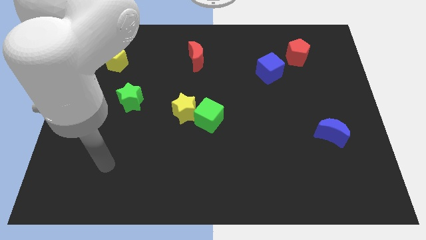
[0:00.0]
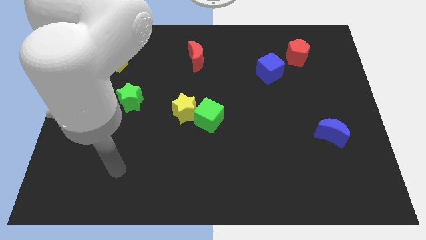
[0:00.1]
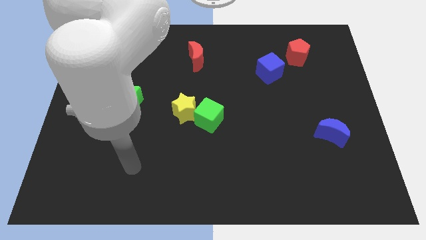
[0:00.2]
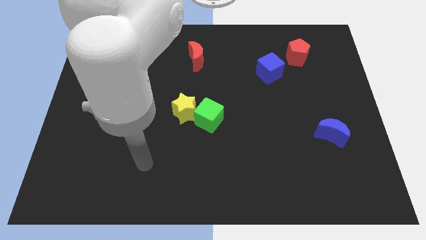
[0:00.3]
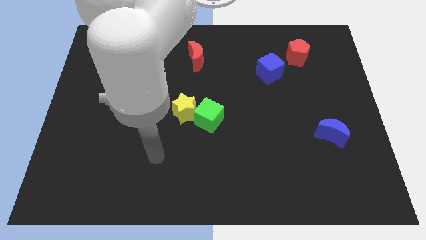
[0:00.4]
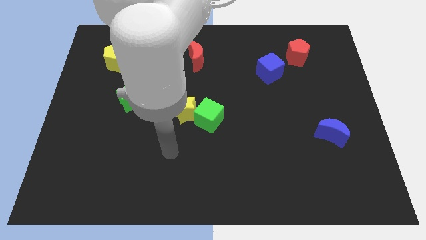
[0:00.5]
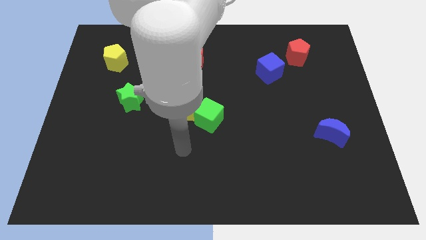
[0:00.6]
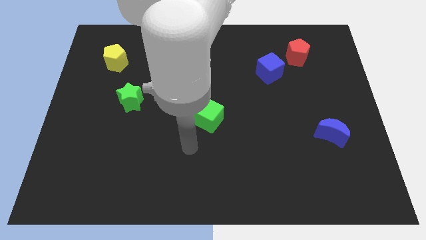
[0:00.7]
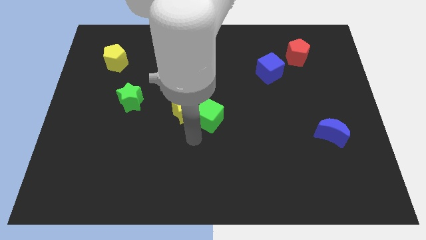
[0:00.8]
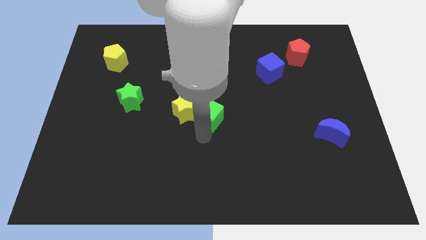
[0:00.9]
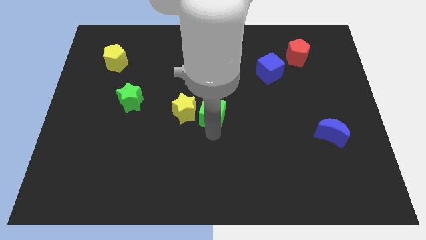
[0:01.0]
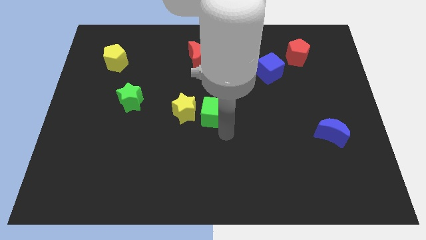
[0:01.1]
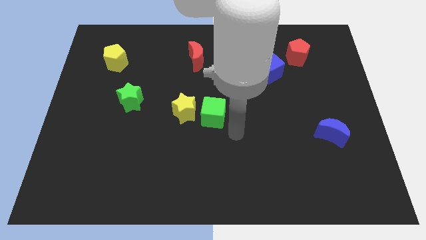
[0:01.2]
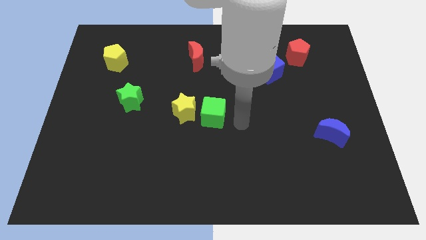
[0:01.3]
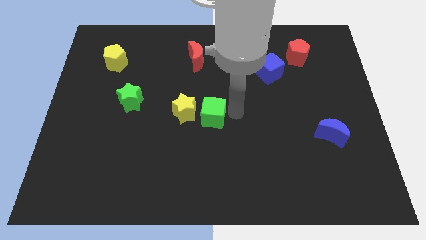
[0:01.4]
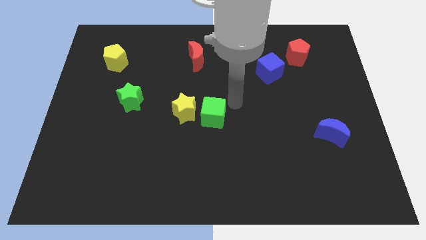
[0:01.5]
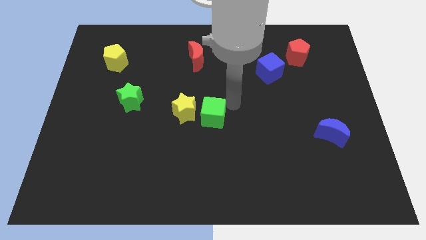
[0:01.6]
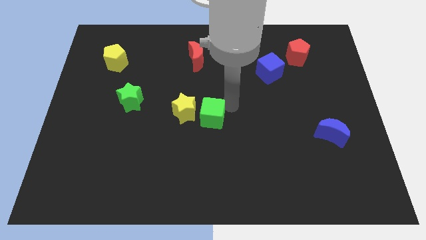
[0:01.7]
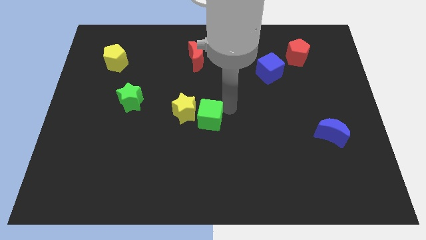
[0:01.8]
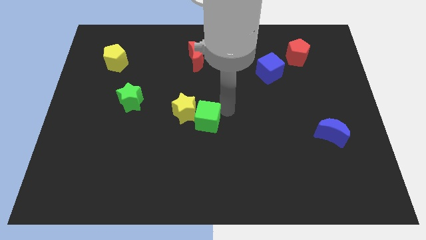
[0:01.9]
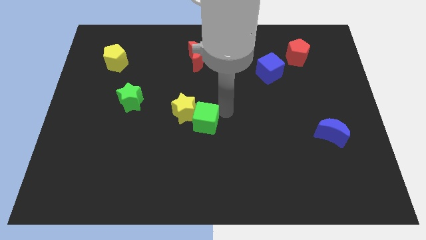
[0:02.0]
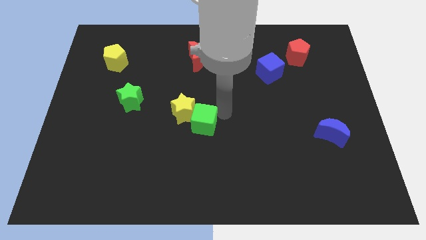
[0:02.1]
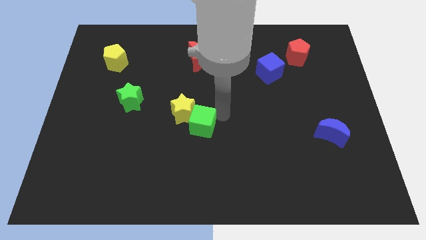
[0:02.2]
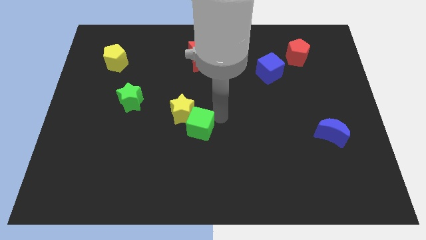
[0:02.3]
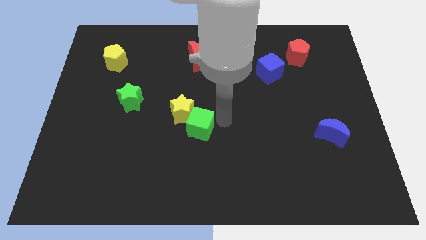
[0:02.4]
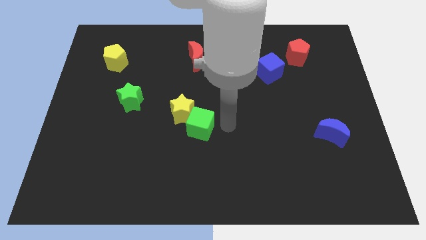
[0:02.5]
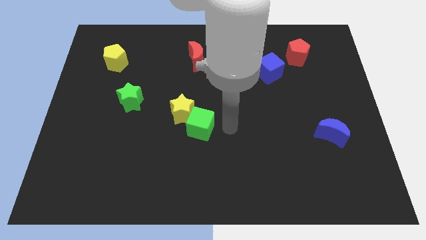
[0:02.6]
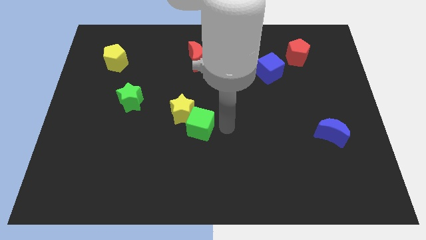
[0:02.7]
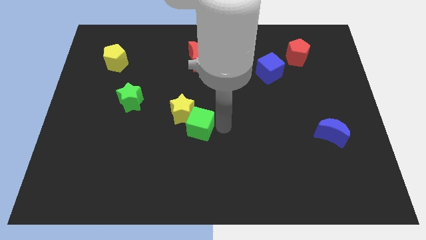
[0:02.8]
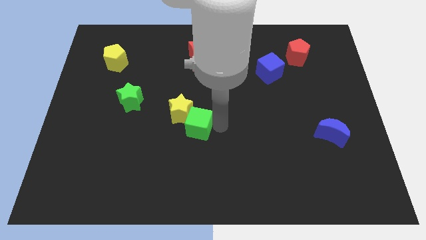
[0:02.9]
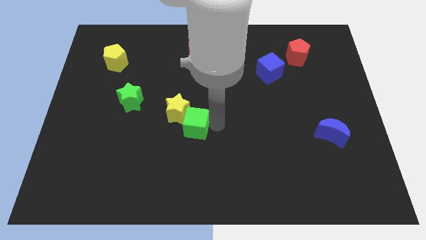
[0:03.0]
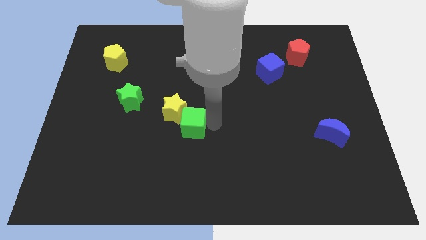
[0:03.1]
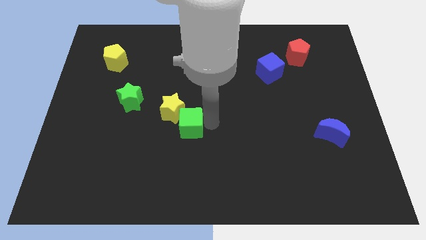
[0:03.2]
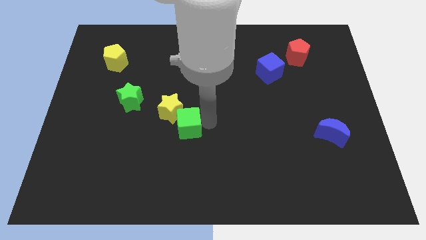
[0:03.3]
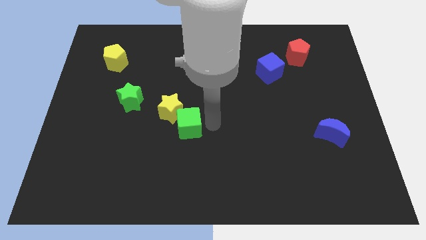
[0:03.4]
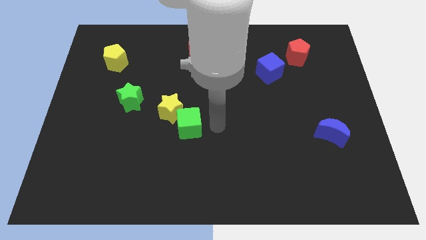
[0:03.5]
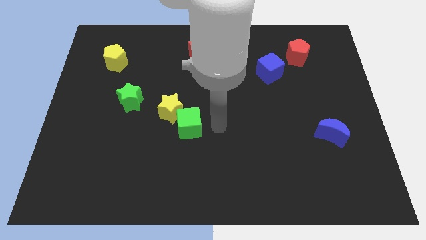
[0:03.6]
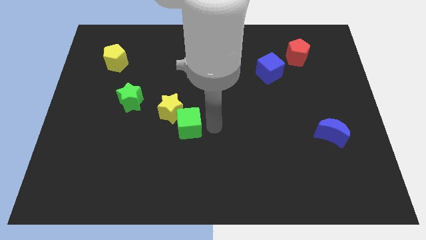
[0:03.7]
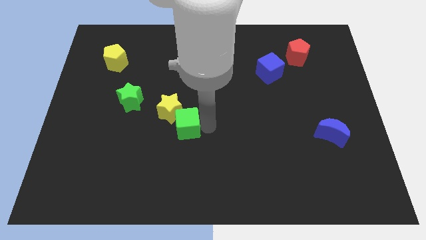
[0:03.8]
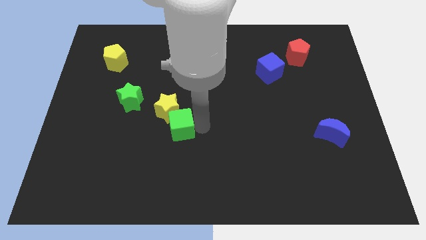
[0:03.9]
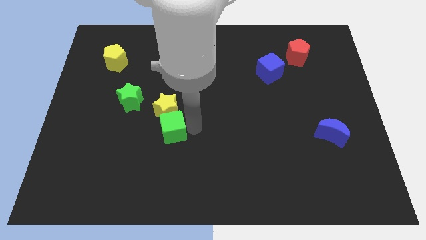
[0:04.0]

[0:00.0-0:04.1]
slide the green cube to the left slightly

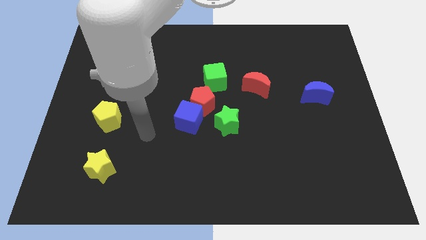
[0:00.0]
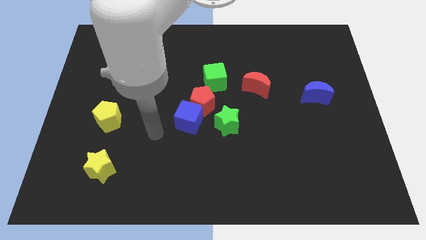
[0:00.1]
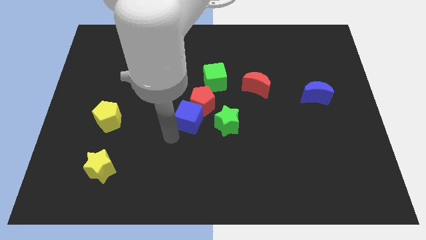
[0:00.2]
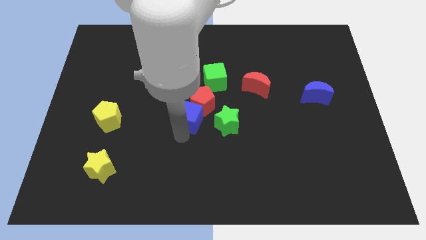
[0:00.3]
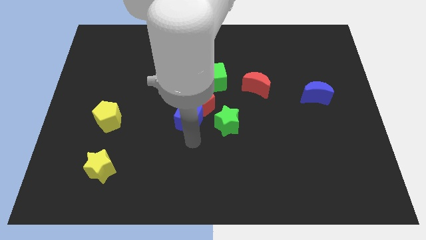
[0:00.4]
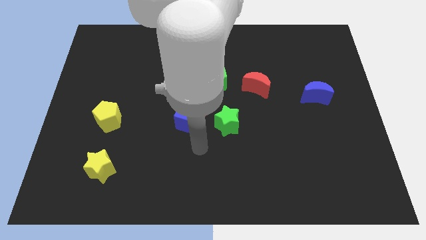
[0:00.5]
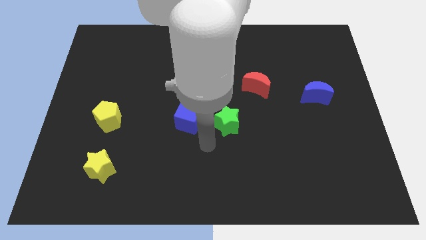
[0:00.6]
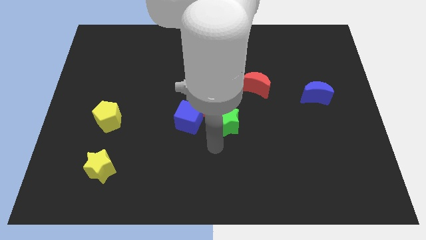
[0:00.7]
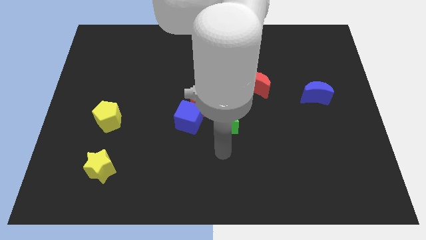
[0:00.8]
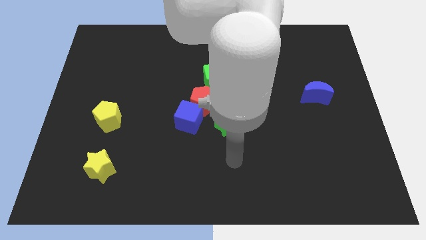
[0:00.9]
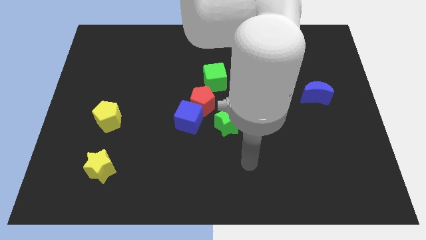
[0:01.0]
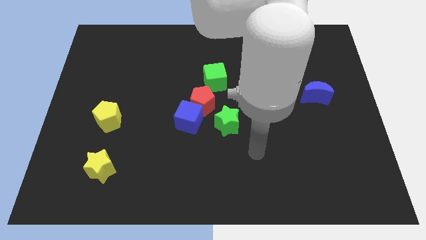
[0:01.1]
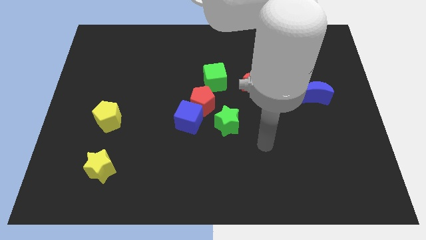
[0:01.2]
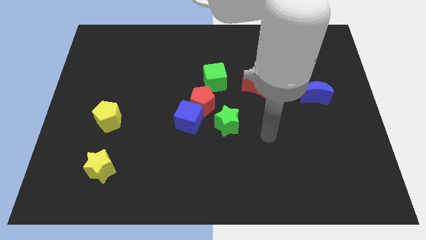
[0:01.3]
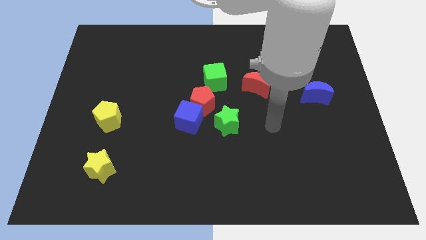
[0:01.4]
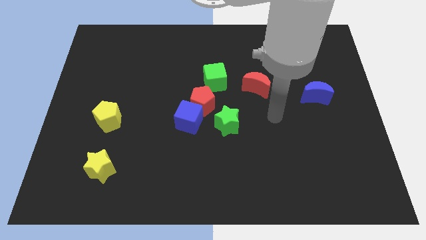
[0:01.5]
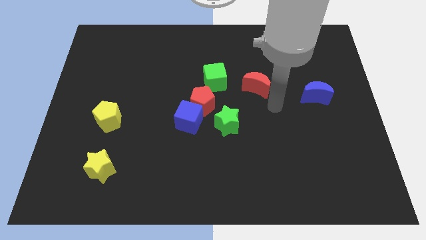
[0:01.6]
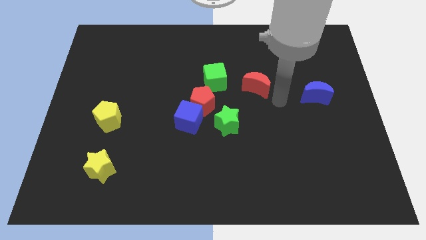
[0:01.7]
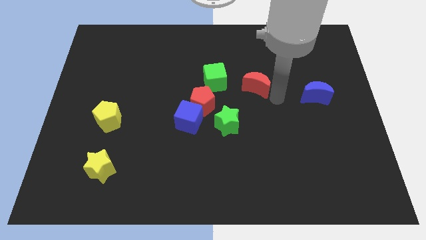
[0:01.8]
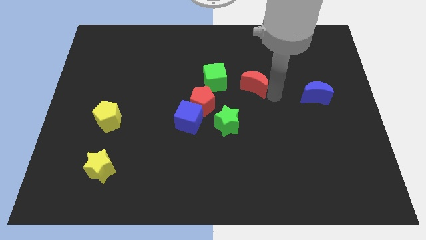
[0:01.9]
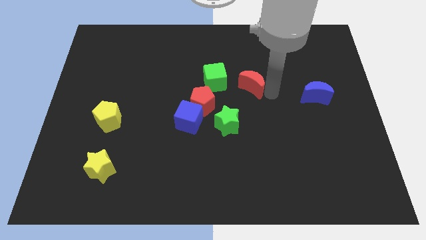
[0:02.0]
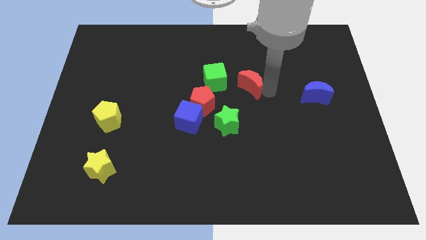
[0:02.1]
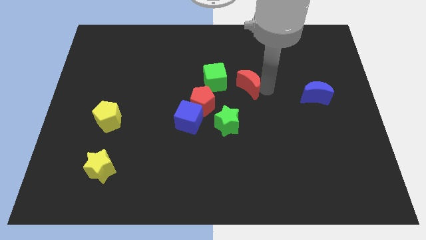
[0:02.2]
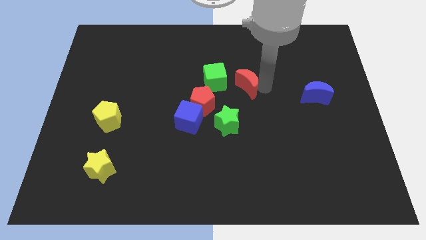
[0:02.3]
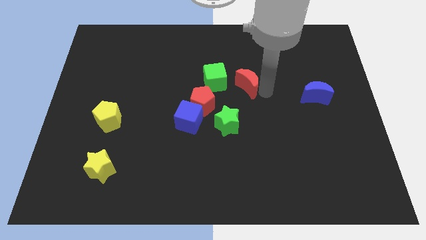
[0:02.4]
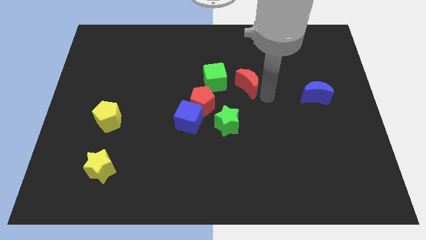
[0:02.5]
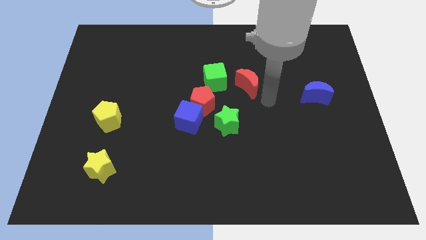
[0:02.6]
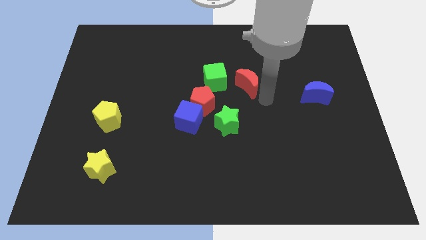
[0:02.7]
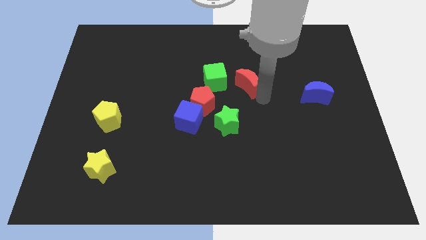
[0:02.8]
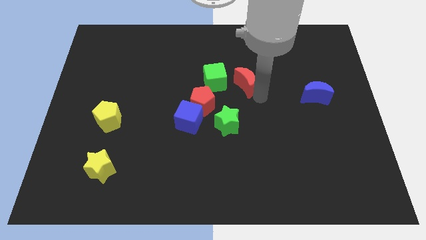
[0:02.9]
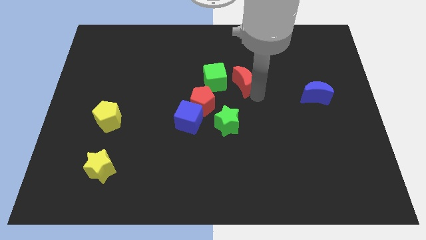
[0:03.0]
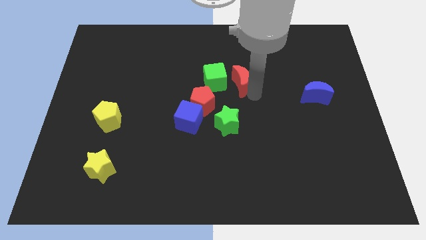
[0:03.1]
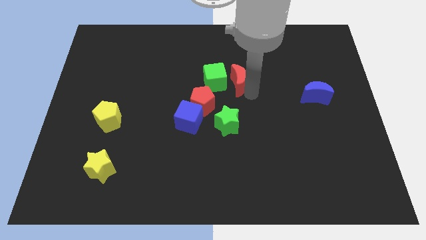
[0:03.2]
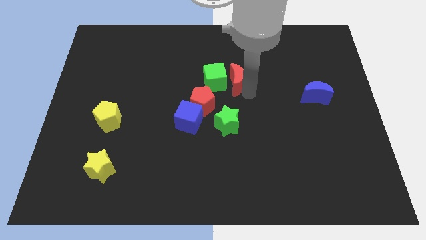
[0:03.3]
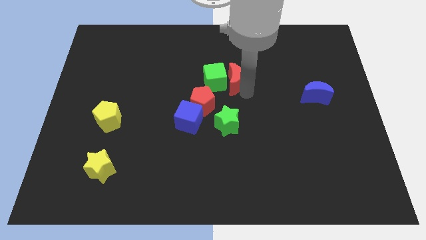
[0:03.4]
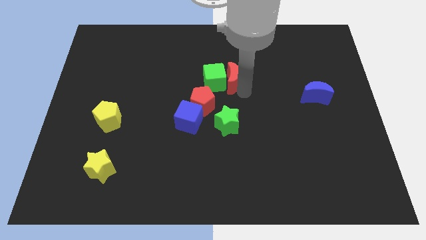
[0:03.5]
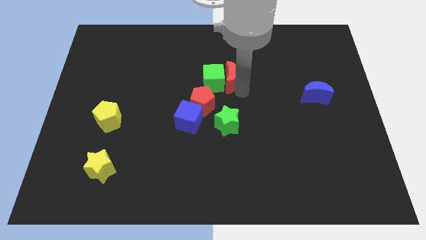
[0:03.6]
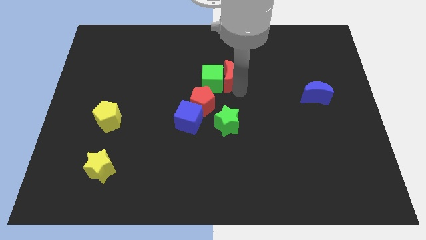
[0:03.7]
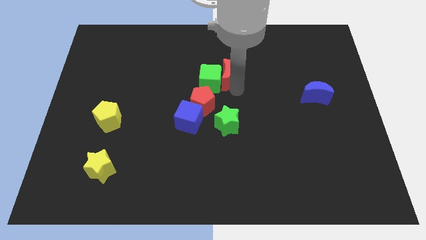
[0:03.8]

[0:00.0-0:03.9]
slide the red moon left a little

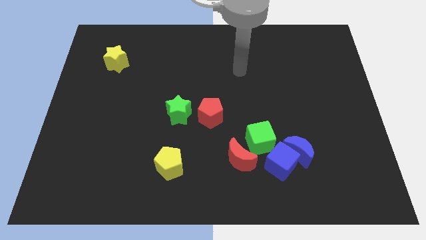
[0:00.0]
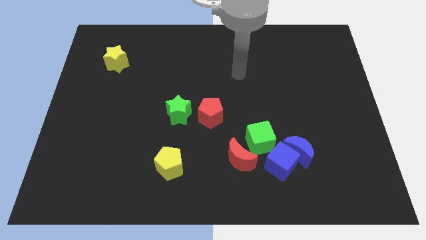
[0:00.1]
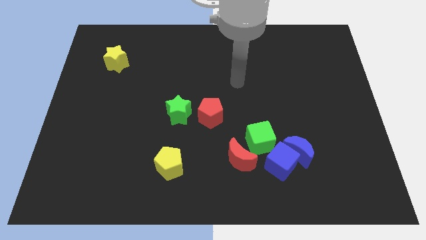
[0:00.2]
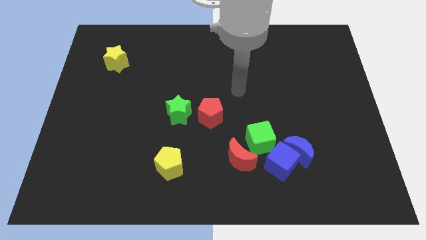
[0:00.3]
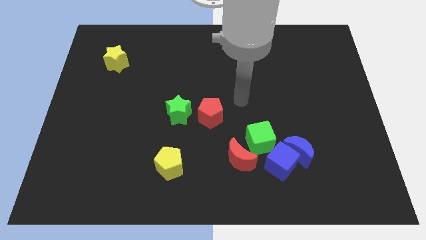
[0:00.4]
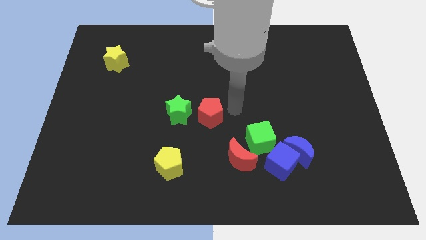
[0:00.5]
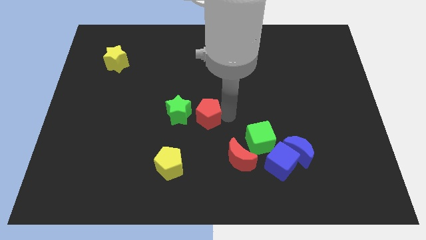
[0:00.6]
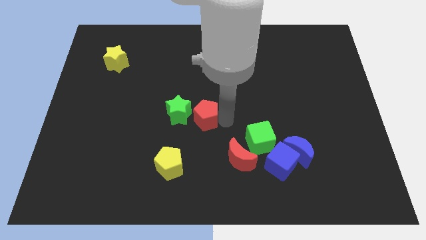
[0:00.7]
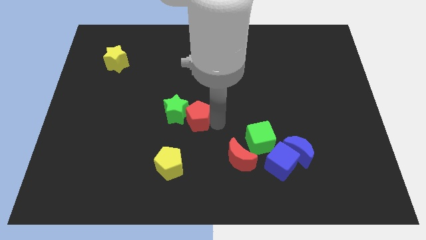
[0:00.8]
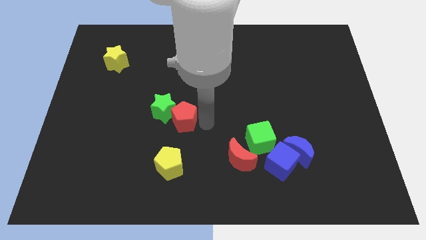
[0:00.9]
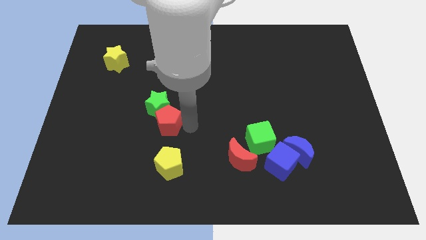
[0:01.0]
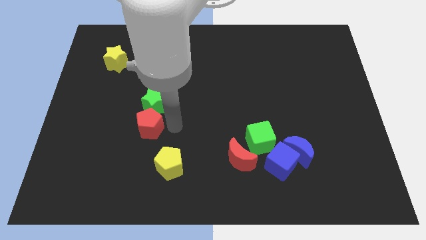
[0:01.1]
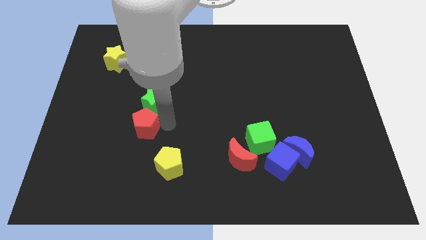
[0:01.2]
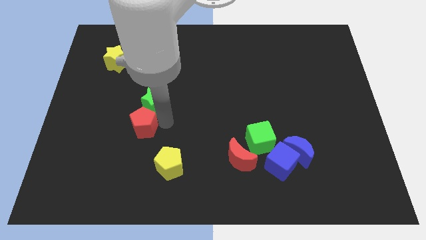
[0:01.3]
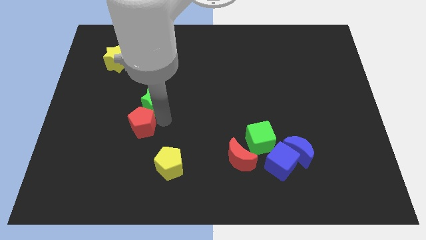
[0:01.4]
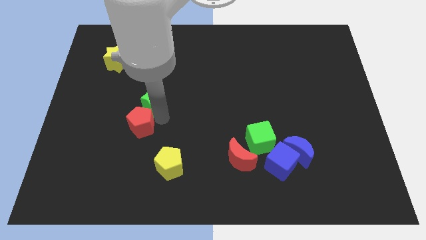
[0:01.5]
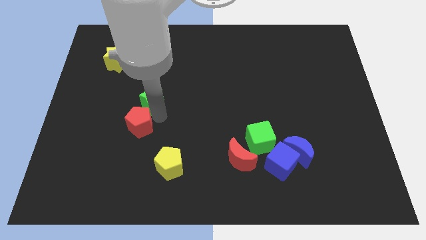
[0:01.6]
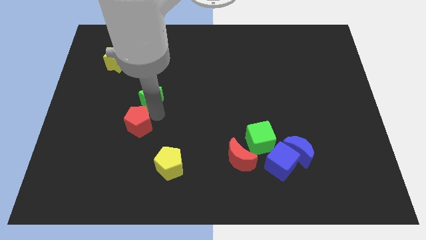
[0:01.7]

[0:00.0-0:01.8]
push the green star a bit up and to the left
